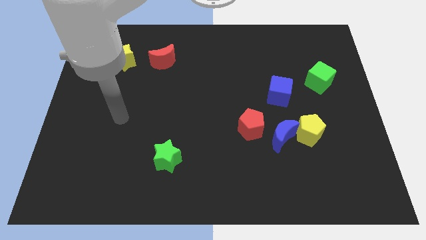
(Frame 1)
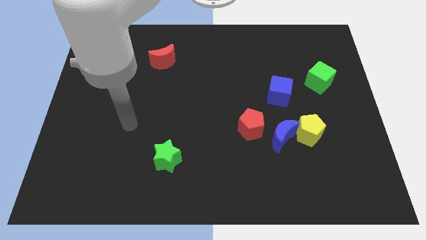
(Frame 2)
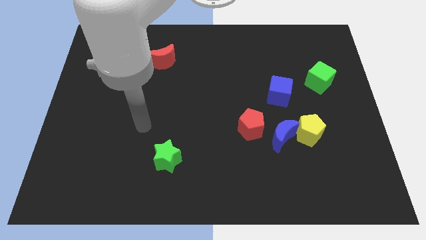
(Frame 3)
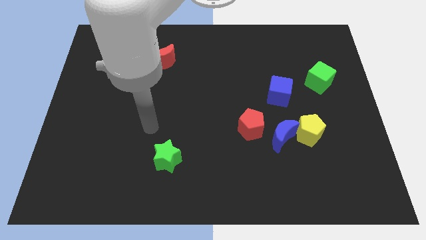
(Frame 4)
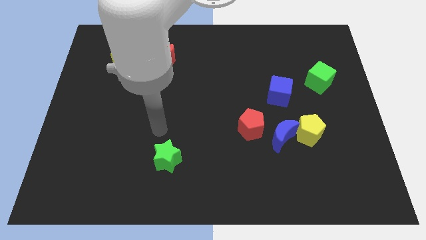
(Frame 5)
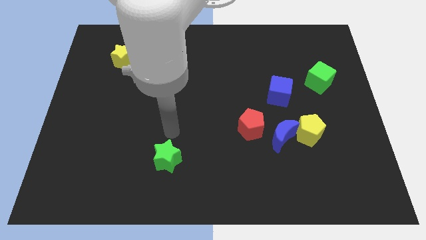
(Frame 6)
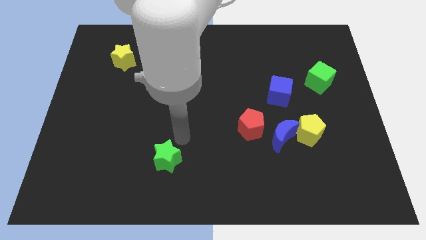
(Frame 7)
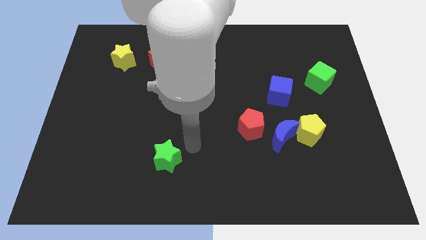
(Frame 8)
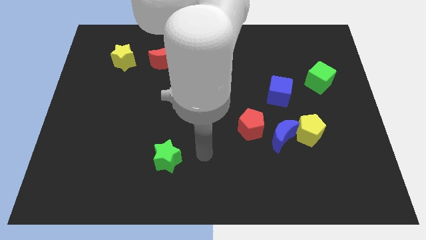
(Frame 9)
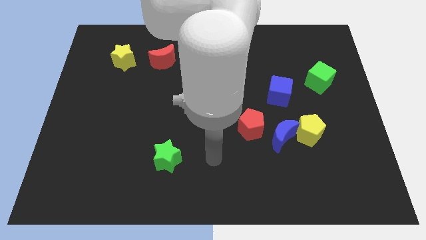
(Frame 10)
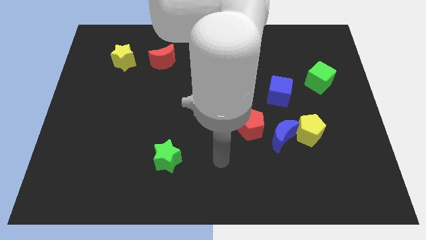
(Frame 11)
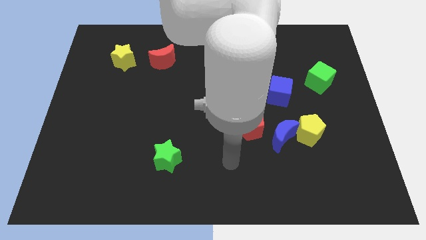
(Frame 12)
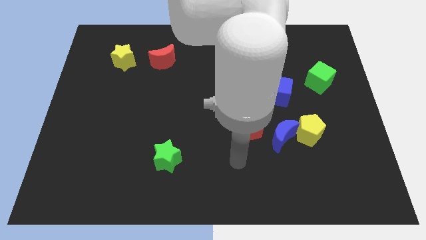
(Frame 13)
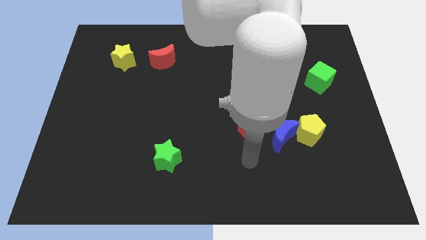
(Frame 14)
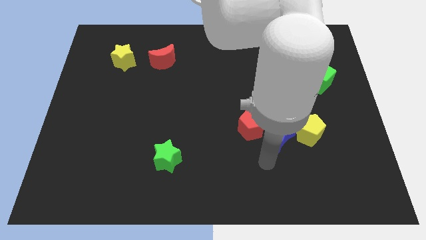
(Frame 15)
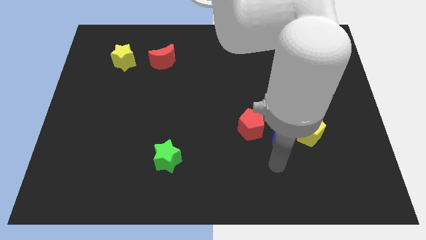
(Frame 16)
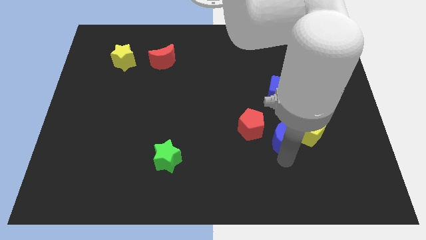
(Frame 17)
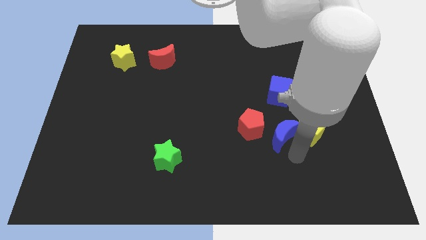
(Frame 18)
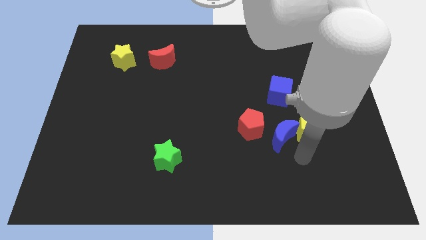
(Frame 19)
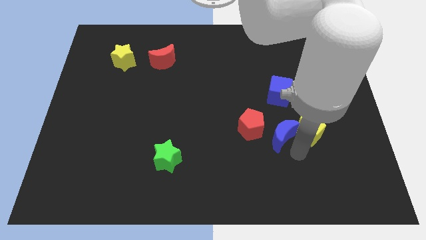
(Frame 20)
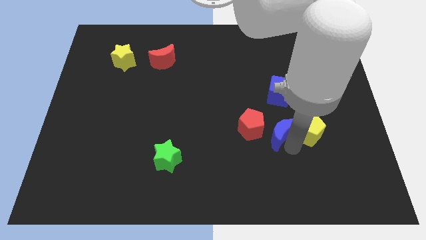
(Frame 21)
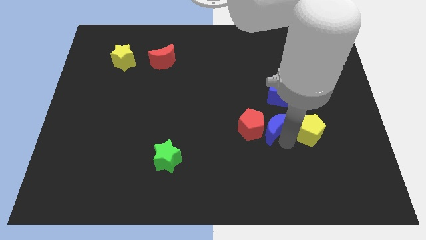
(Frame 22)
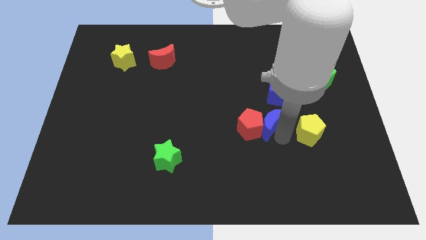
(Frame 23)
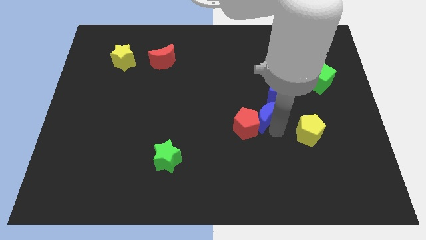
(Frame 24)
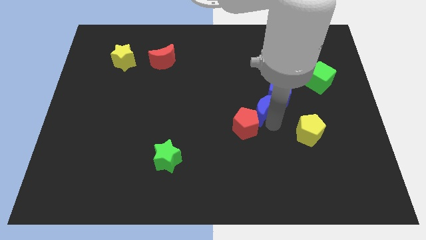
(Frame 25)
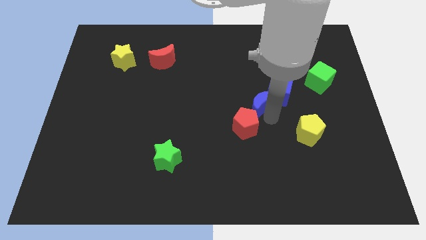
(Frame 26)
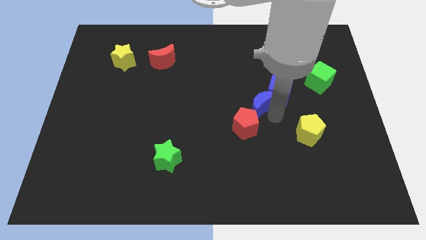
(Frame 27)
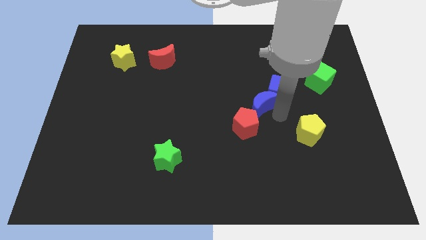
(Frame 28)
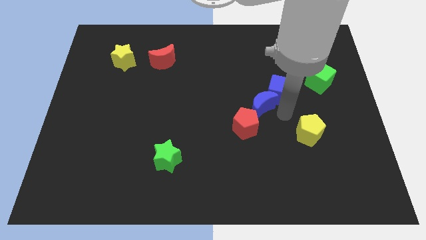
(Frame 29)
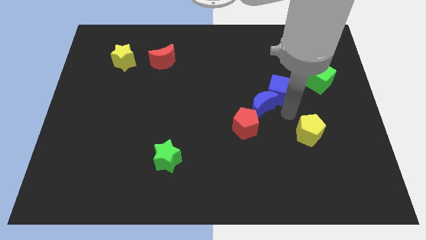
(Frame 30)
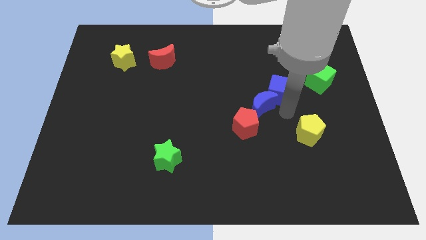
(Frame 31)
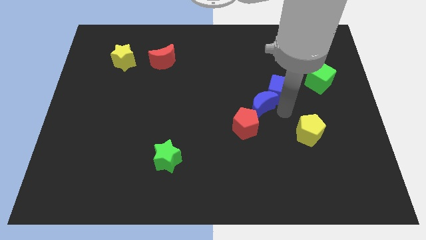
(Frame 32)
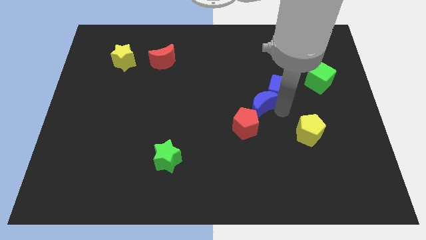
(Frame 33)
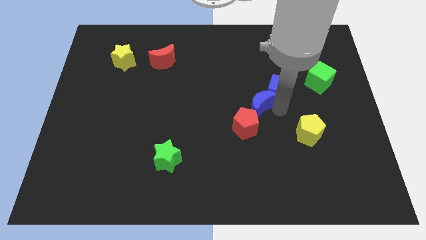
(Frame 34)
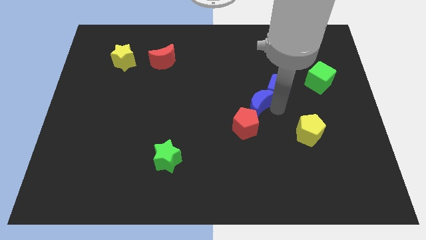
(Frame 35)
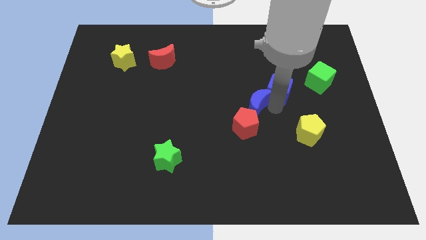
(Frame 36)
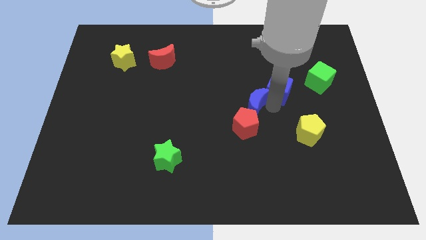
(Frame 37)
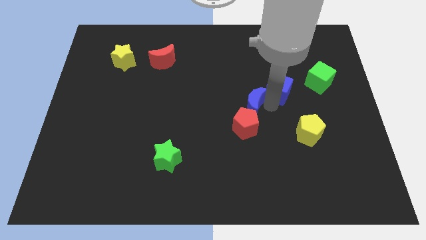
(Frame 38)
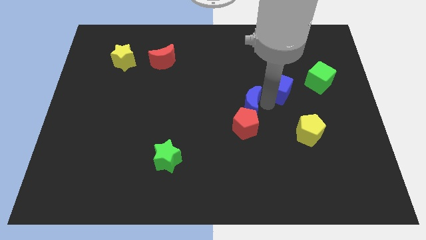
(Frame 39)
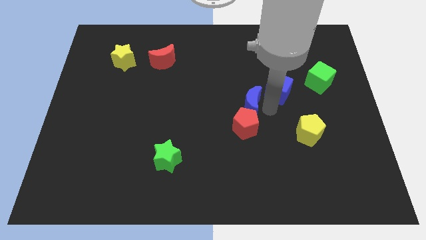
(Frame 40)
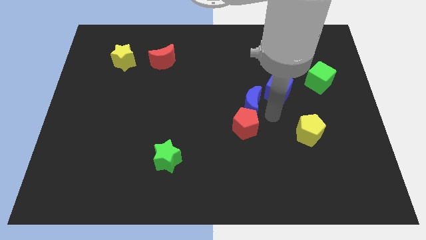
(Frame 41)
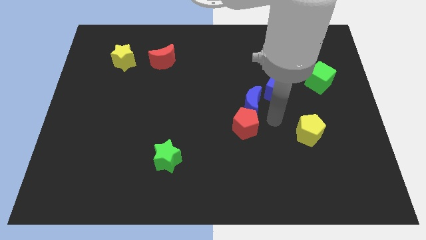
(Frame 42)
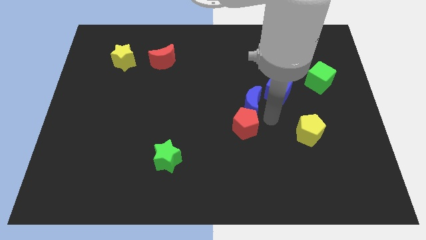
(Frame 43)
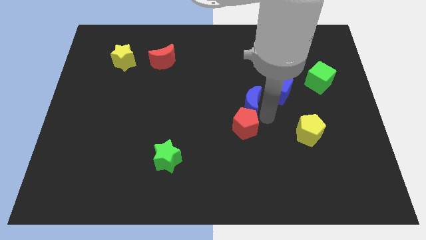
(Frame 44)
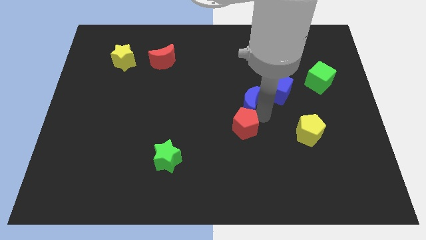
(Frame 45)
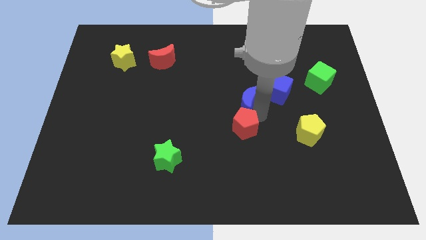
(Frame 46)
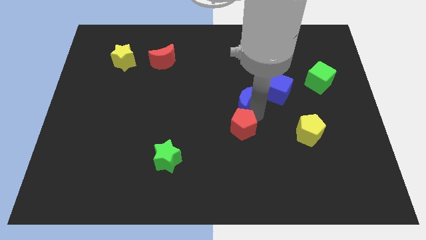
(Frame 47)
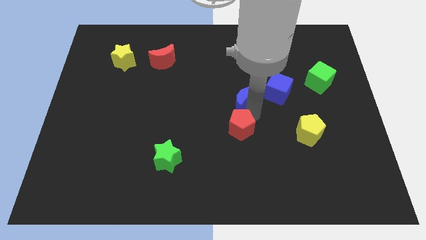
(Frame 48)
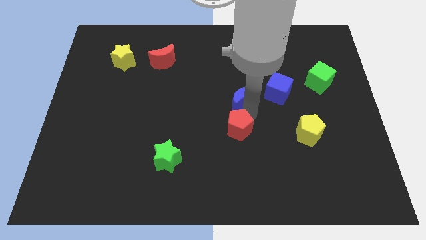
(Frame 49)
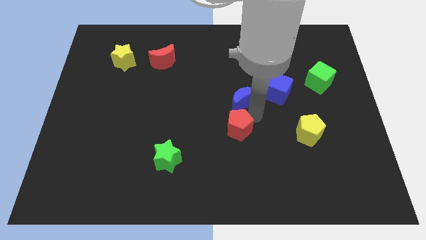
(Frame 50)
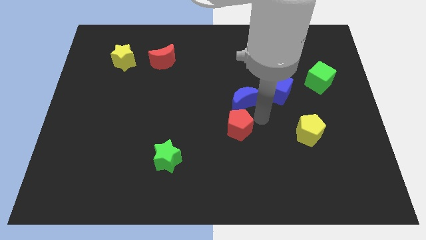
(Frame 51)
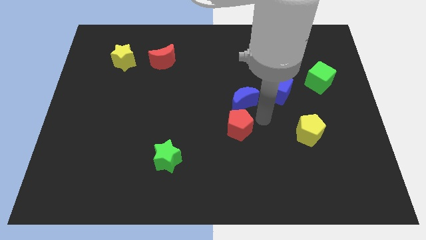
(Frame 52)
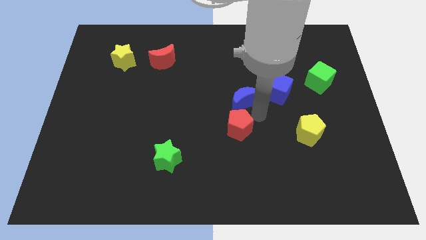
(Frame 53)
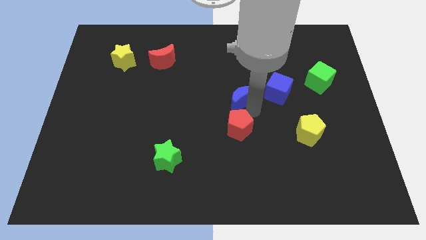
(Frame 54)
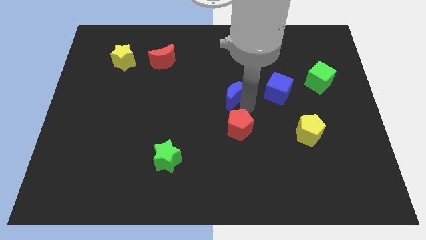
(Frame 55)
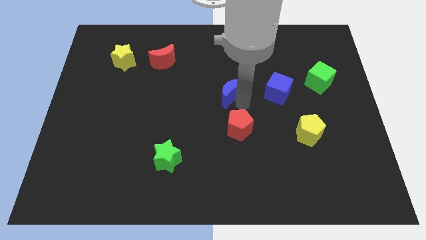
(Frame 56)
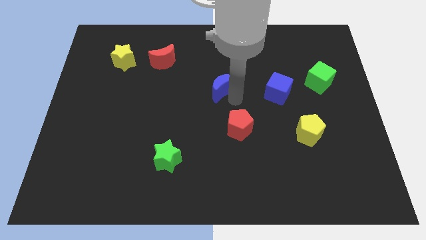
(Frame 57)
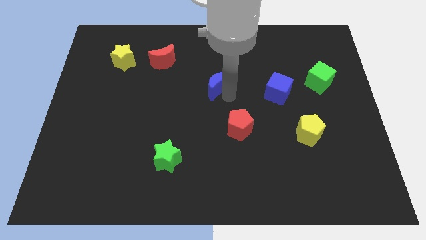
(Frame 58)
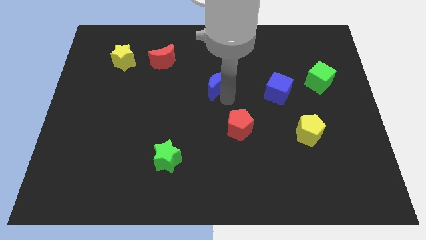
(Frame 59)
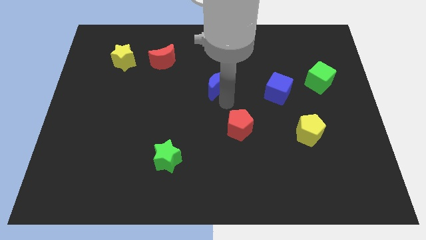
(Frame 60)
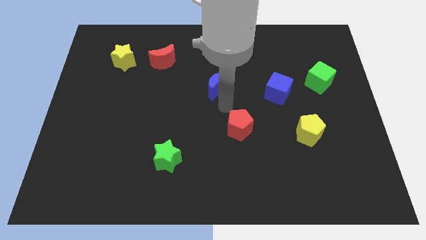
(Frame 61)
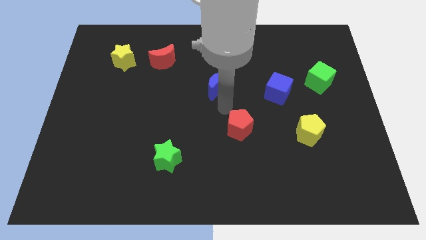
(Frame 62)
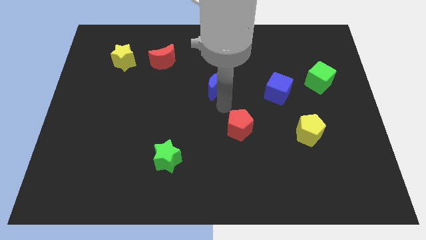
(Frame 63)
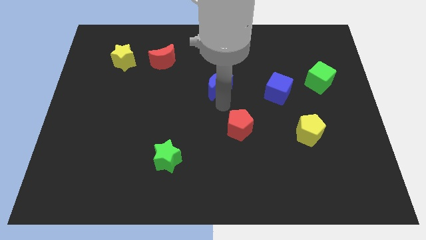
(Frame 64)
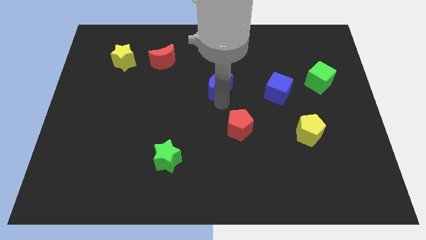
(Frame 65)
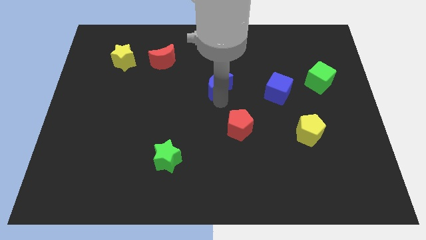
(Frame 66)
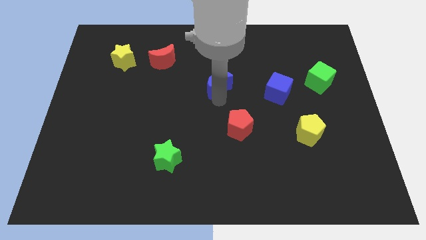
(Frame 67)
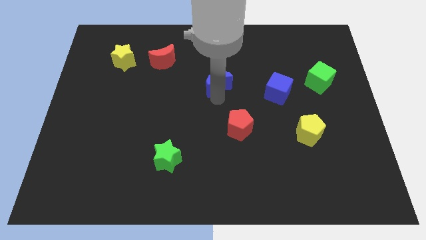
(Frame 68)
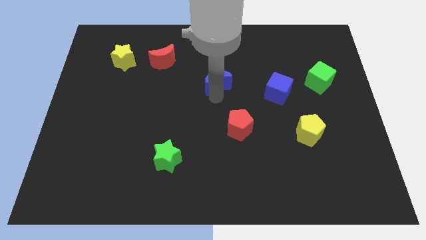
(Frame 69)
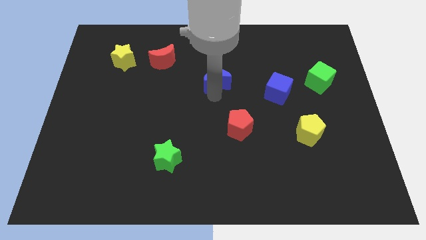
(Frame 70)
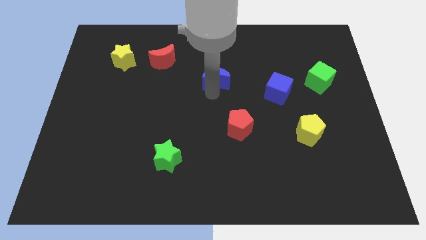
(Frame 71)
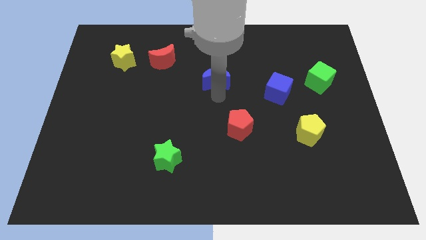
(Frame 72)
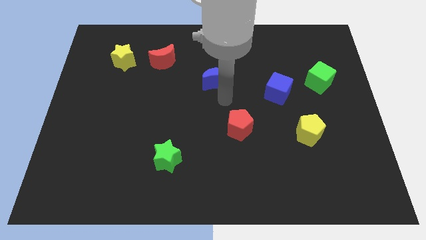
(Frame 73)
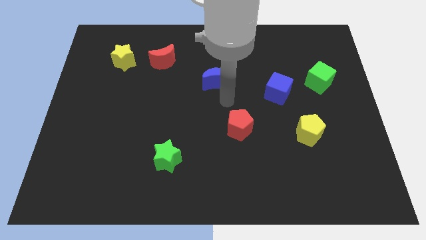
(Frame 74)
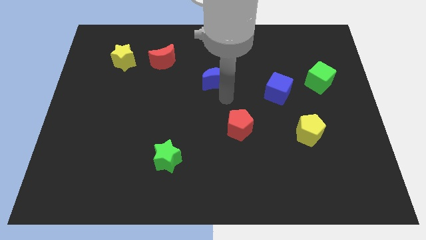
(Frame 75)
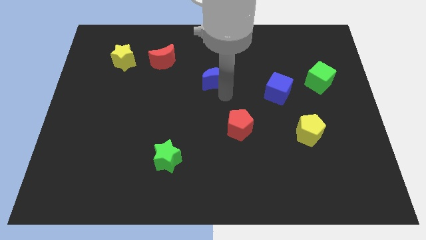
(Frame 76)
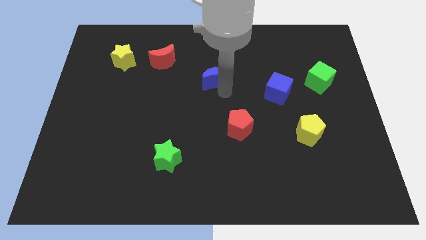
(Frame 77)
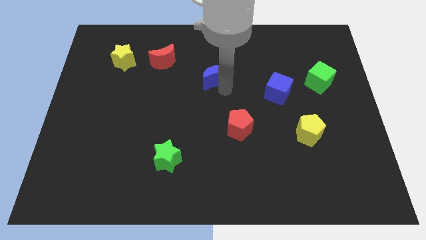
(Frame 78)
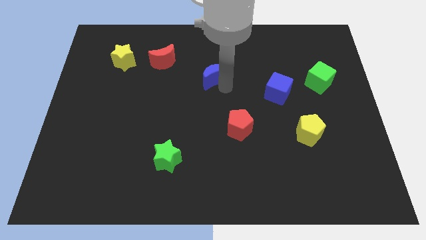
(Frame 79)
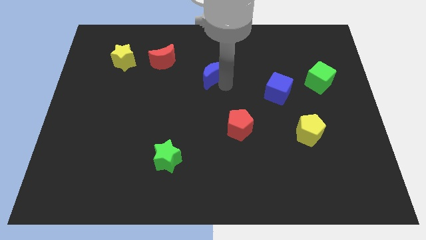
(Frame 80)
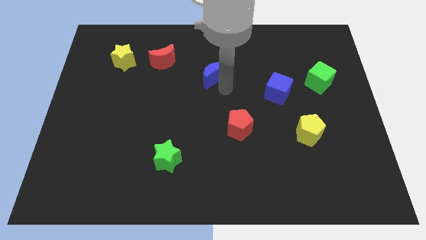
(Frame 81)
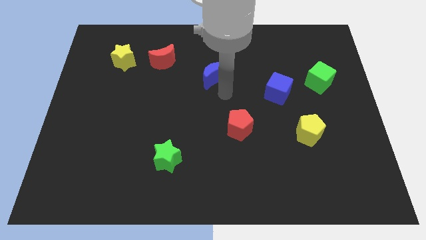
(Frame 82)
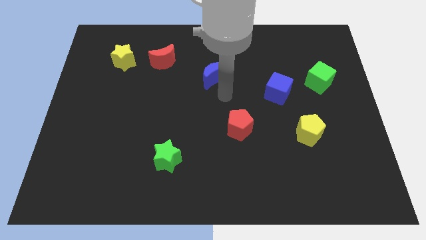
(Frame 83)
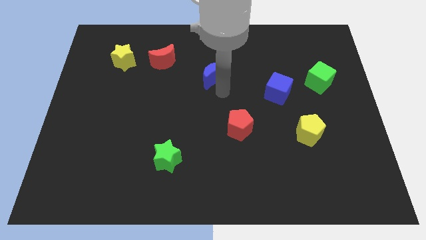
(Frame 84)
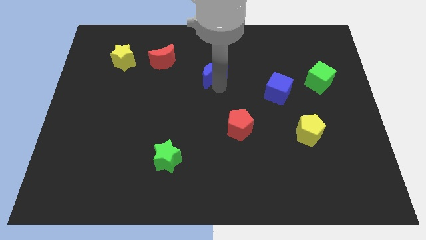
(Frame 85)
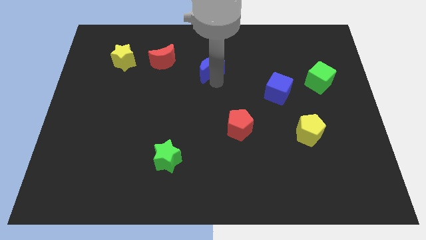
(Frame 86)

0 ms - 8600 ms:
move the blue moon right of the red moon
